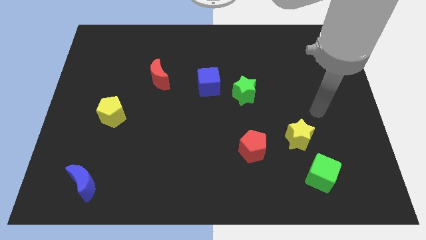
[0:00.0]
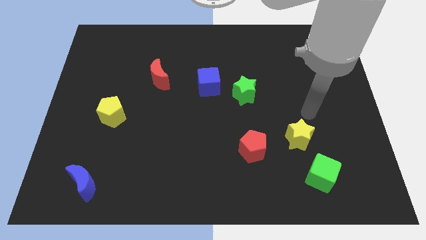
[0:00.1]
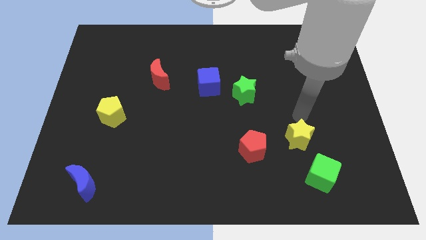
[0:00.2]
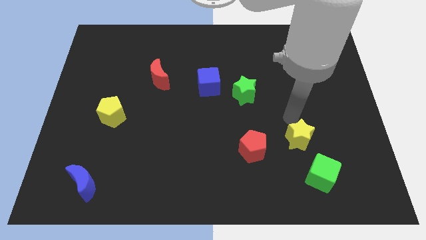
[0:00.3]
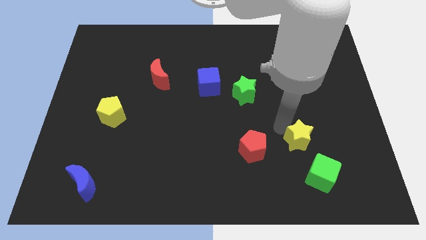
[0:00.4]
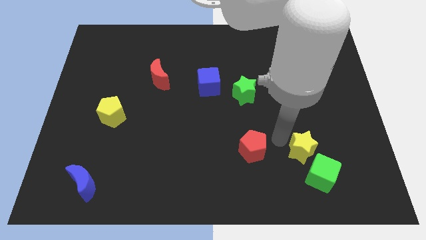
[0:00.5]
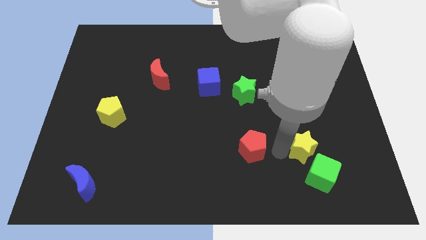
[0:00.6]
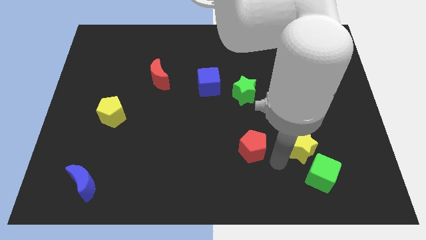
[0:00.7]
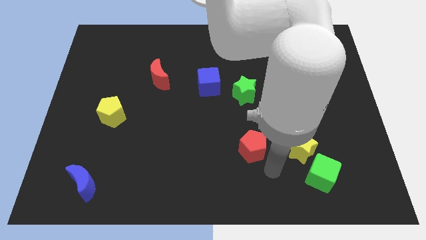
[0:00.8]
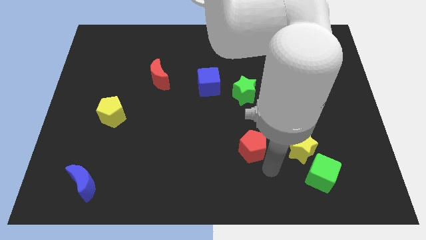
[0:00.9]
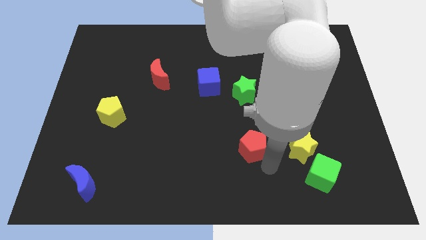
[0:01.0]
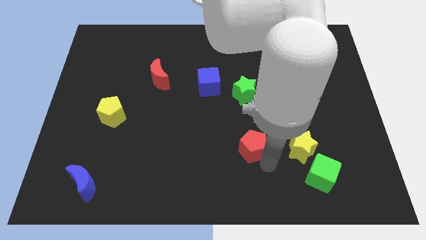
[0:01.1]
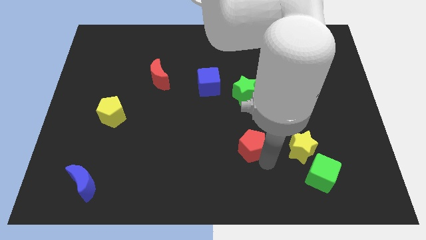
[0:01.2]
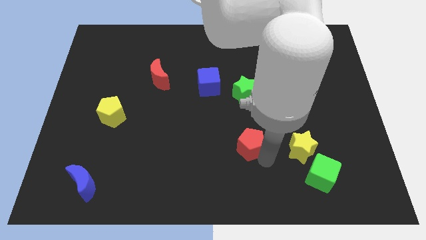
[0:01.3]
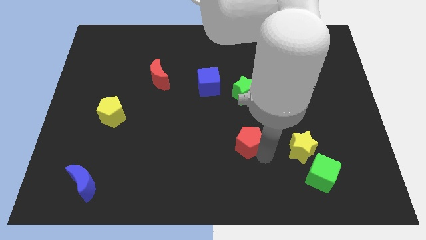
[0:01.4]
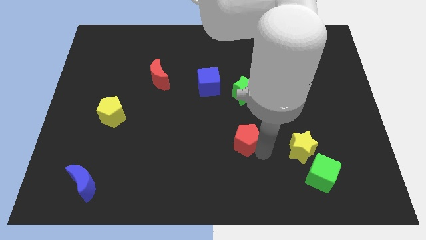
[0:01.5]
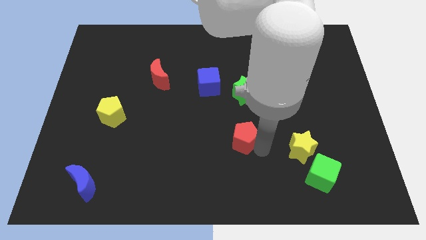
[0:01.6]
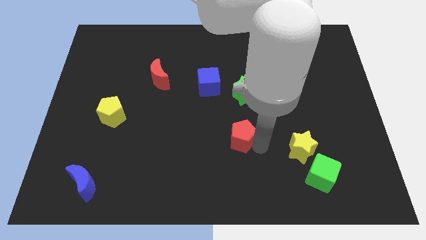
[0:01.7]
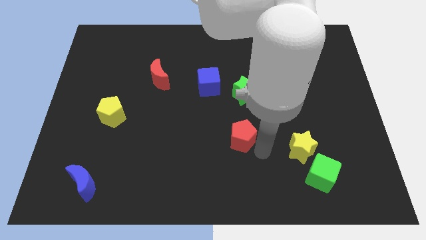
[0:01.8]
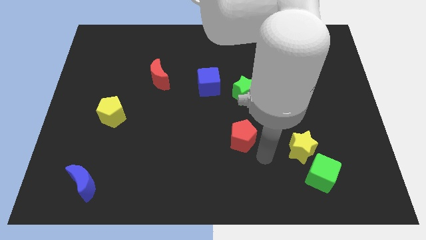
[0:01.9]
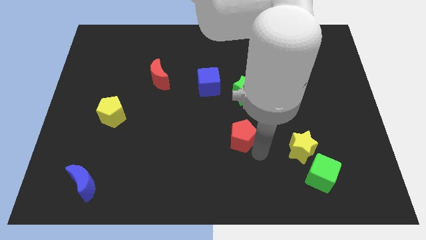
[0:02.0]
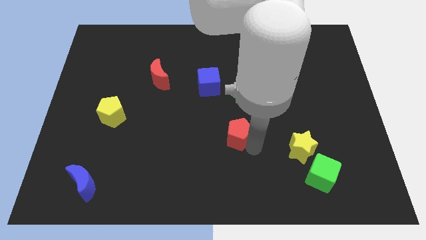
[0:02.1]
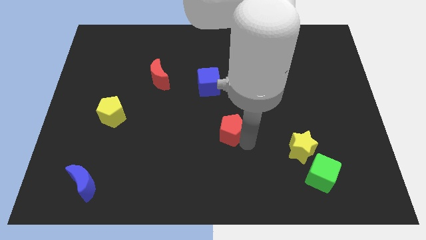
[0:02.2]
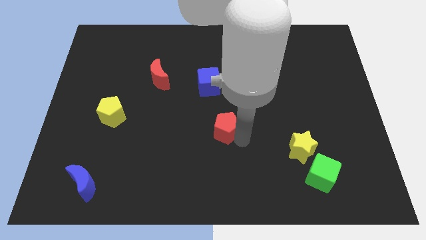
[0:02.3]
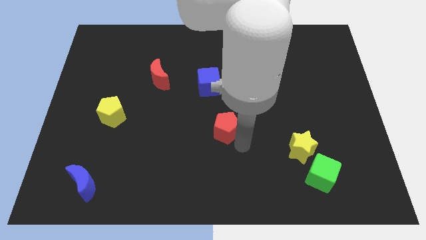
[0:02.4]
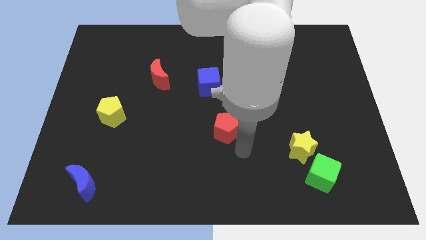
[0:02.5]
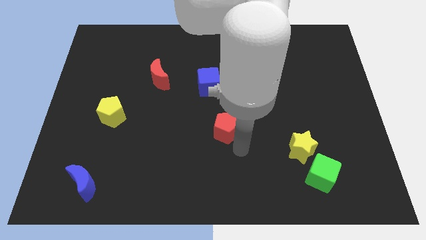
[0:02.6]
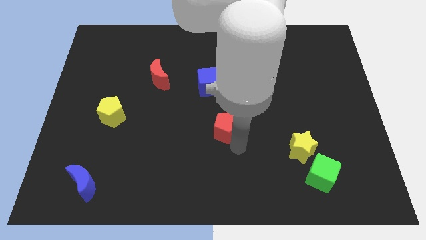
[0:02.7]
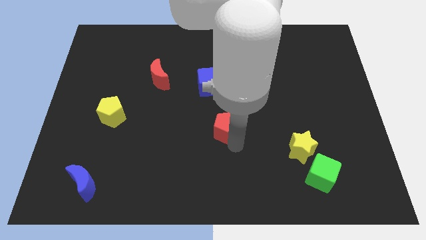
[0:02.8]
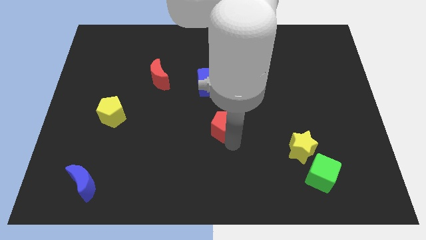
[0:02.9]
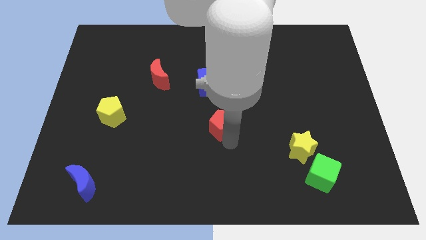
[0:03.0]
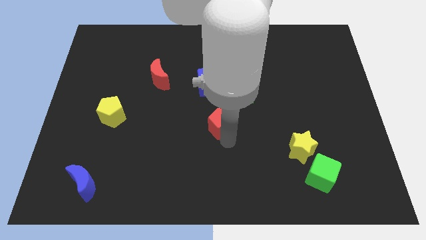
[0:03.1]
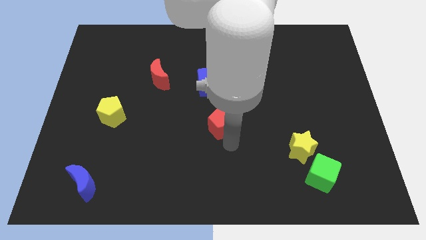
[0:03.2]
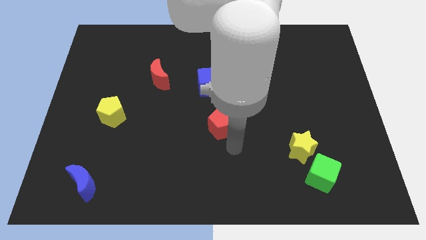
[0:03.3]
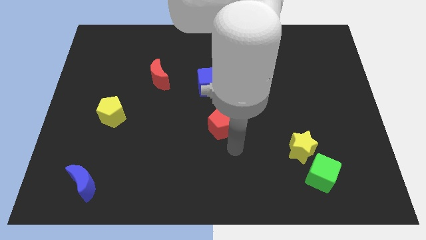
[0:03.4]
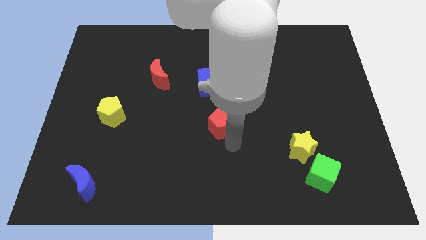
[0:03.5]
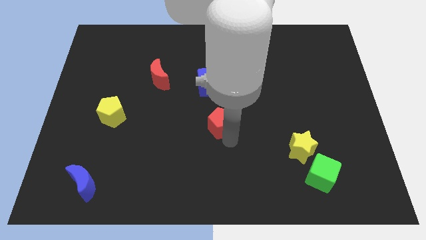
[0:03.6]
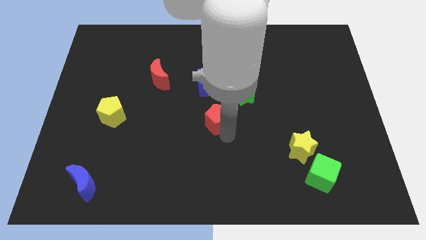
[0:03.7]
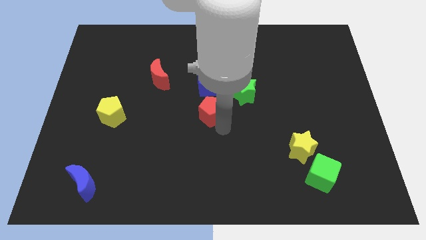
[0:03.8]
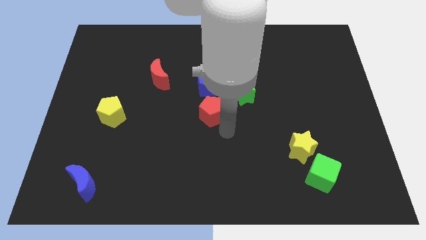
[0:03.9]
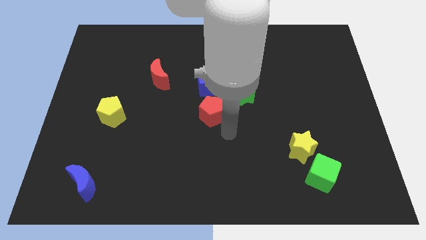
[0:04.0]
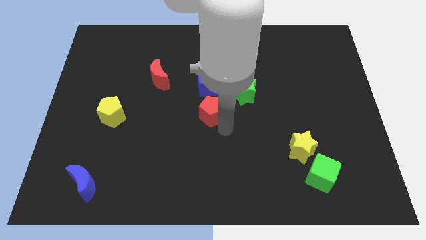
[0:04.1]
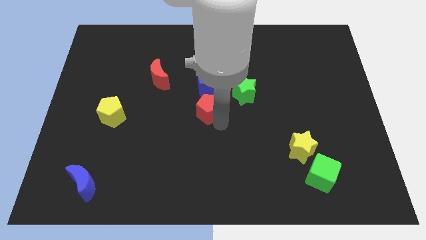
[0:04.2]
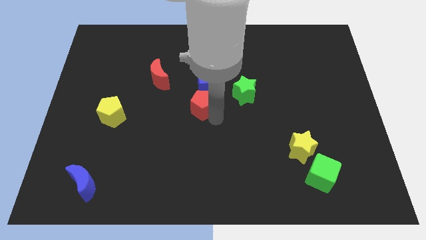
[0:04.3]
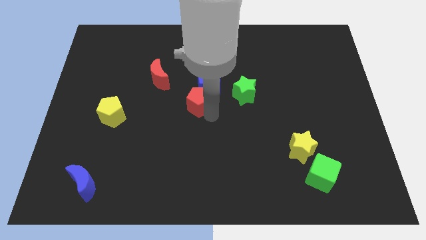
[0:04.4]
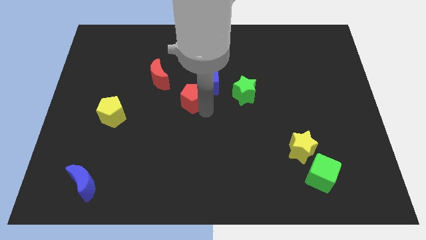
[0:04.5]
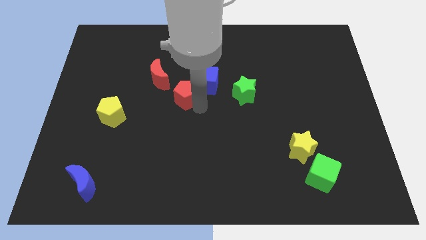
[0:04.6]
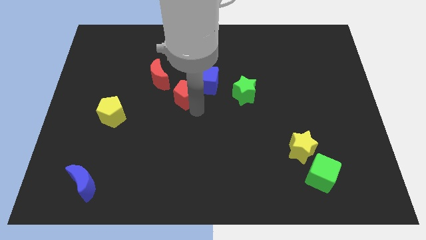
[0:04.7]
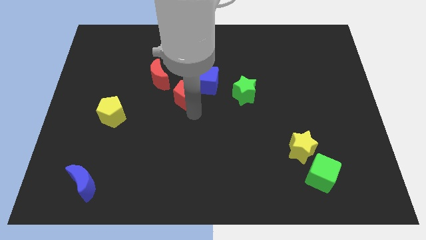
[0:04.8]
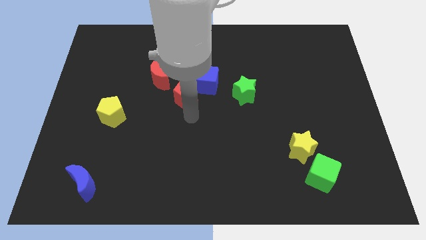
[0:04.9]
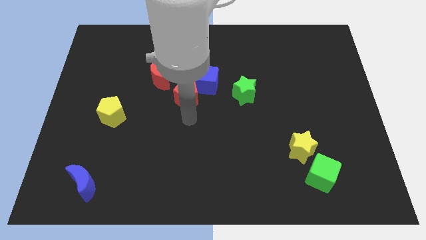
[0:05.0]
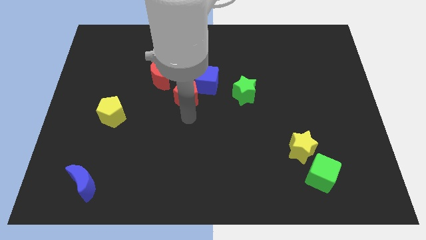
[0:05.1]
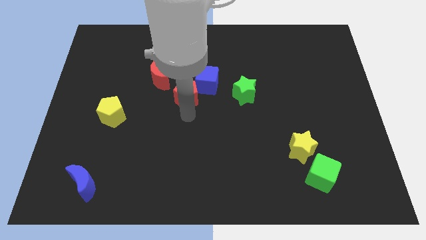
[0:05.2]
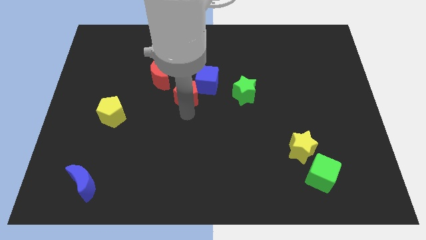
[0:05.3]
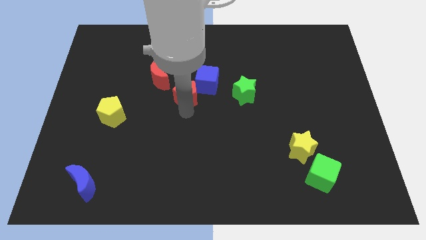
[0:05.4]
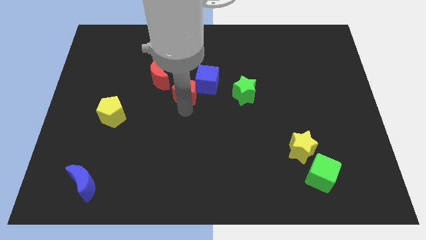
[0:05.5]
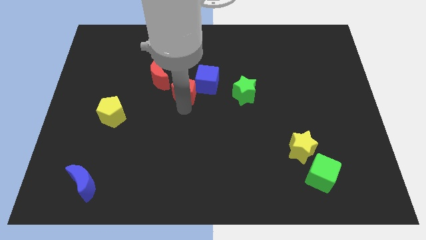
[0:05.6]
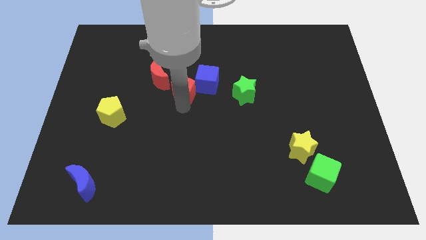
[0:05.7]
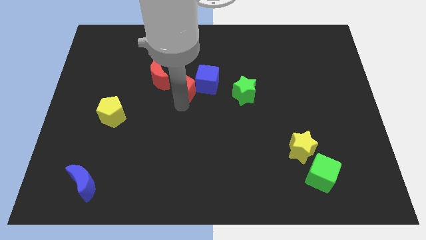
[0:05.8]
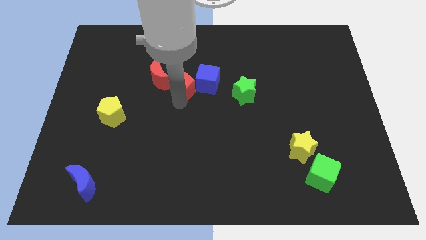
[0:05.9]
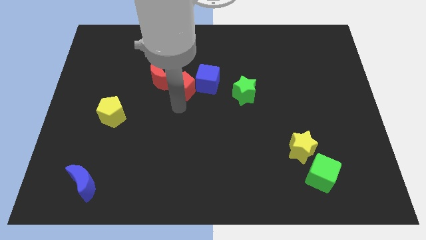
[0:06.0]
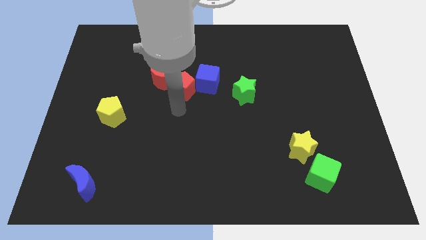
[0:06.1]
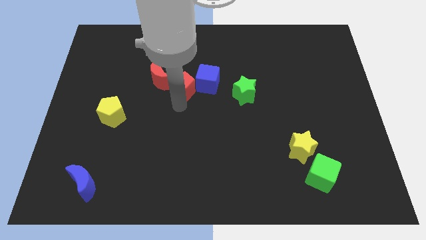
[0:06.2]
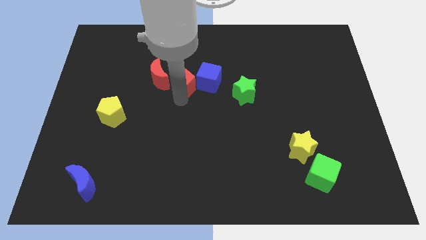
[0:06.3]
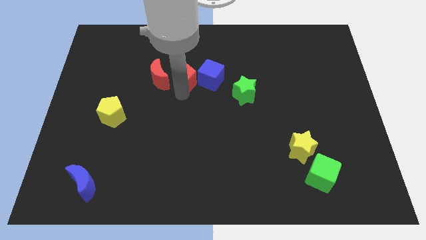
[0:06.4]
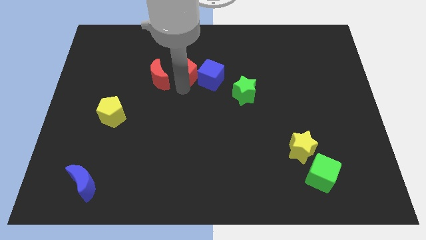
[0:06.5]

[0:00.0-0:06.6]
push the red pentagon diagonally up and to the left of the blue cube
